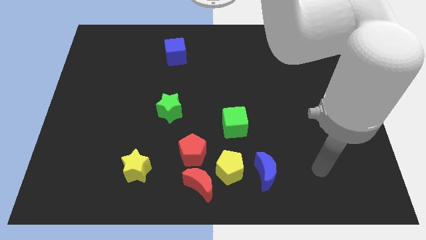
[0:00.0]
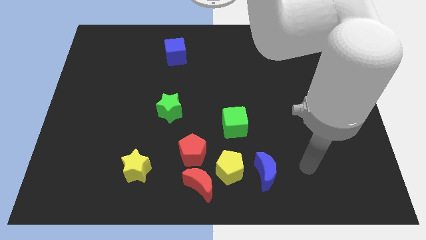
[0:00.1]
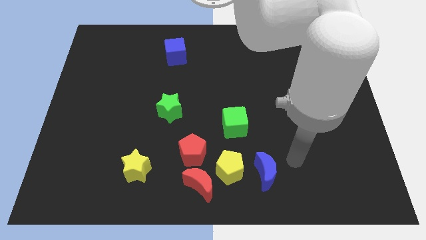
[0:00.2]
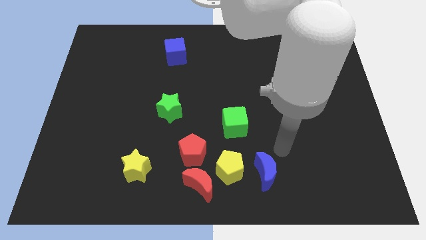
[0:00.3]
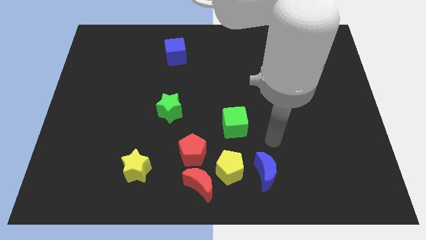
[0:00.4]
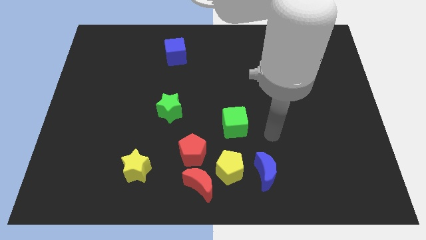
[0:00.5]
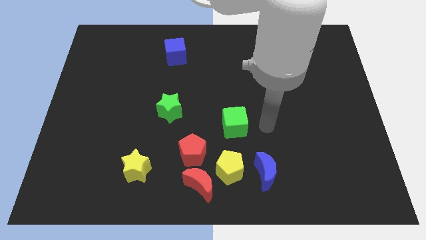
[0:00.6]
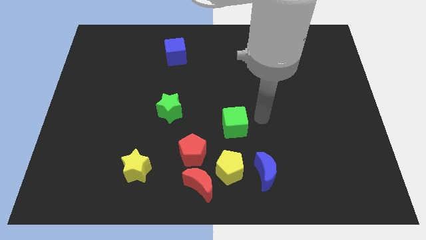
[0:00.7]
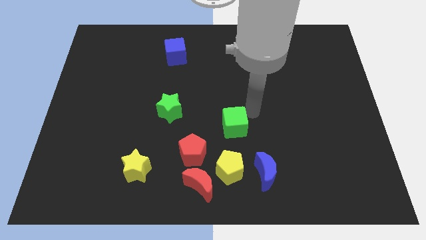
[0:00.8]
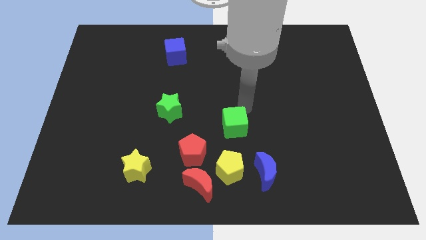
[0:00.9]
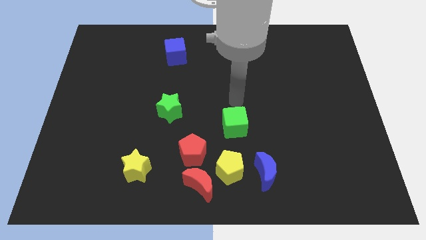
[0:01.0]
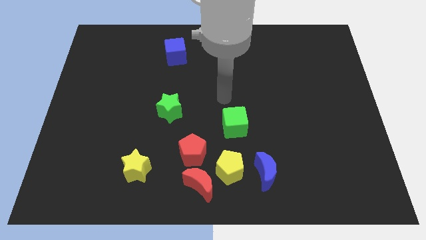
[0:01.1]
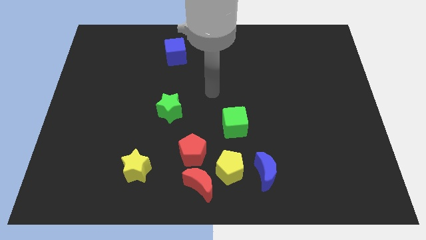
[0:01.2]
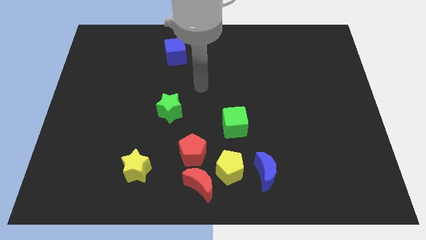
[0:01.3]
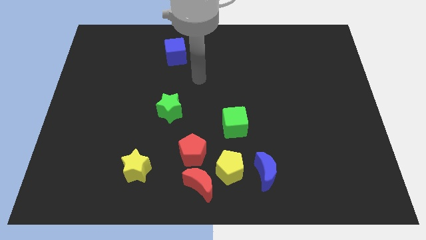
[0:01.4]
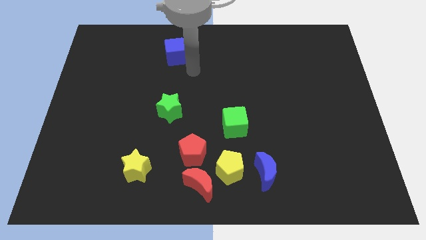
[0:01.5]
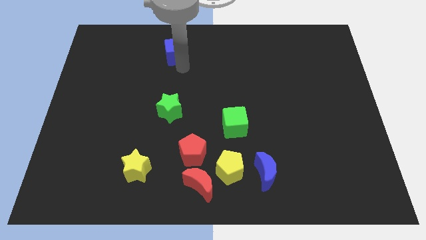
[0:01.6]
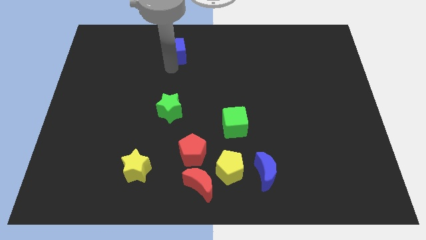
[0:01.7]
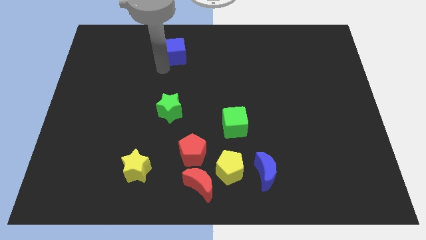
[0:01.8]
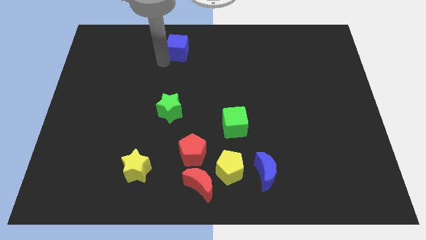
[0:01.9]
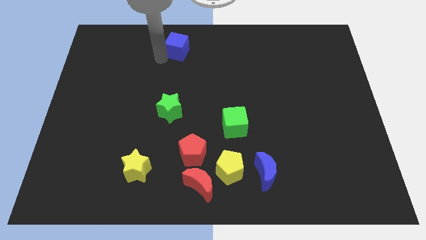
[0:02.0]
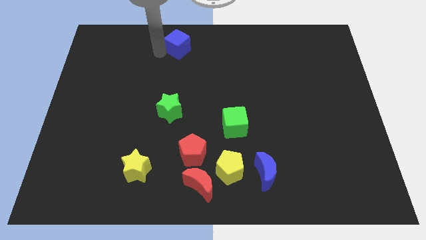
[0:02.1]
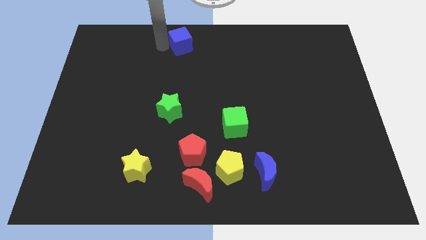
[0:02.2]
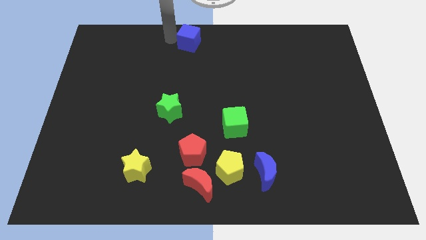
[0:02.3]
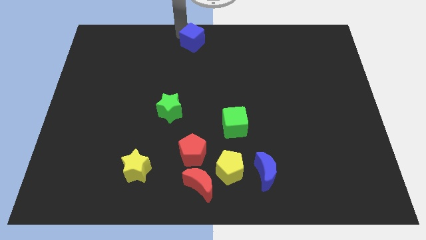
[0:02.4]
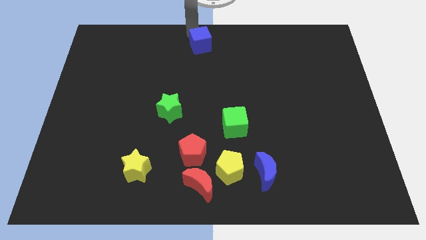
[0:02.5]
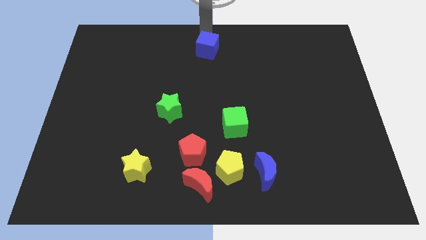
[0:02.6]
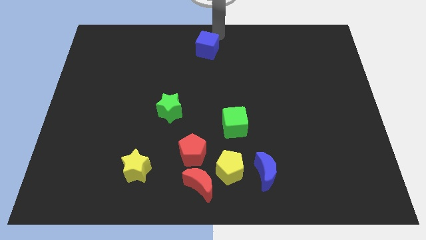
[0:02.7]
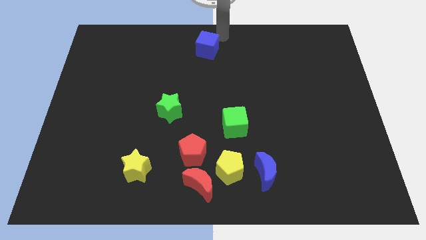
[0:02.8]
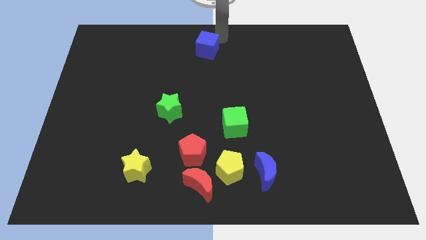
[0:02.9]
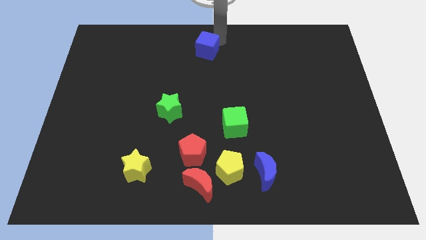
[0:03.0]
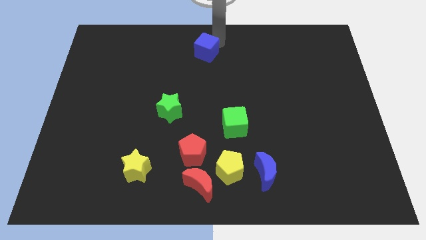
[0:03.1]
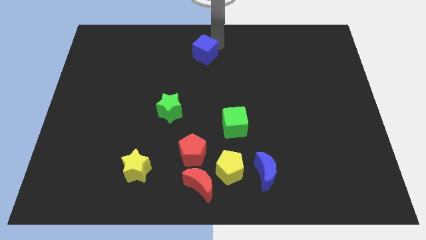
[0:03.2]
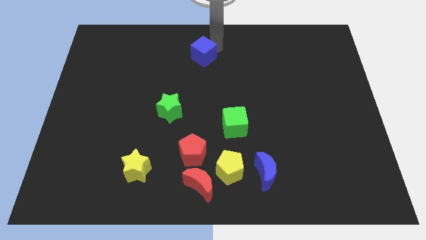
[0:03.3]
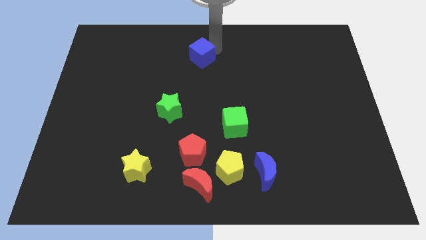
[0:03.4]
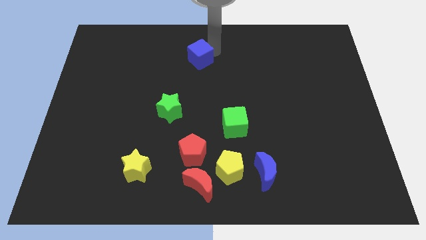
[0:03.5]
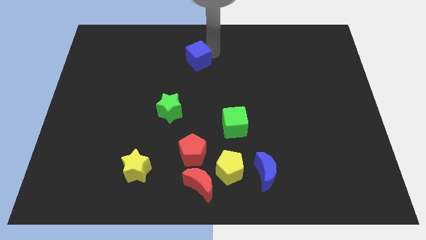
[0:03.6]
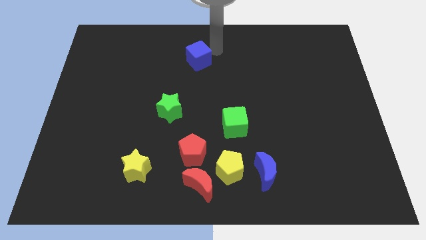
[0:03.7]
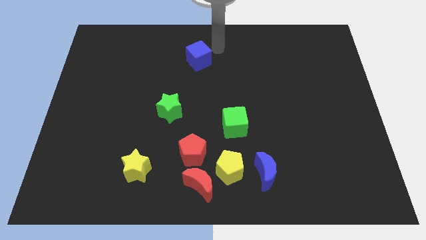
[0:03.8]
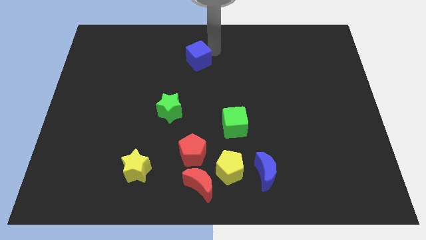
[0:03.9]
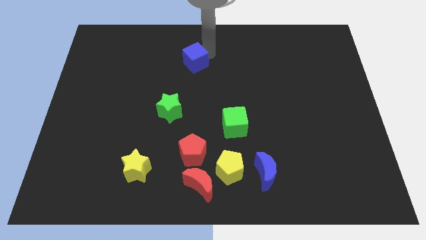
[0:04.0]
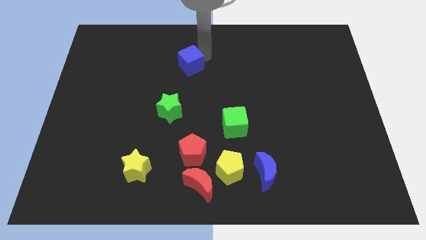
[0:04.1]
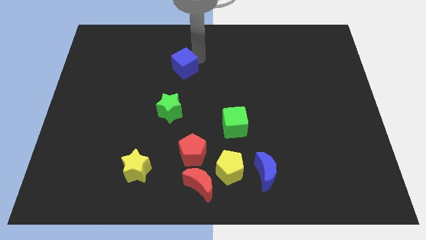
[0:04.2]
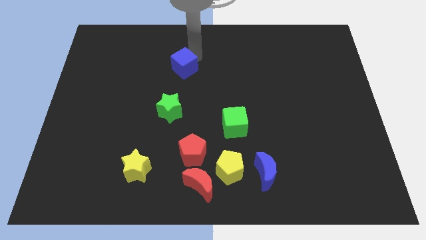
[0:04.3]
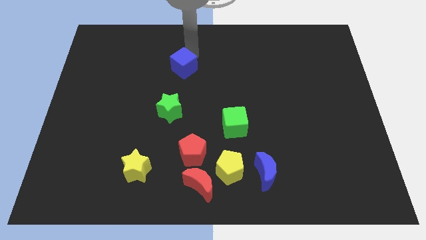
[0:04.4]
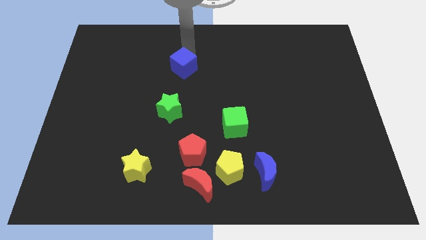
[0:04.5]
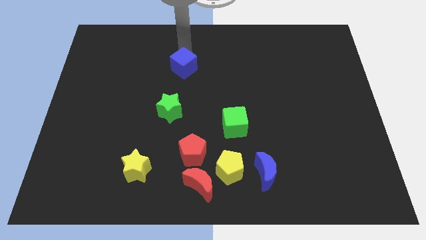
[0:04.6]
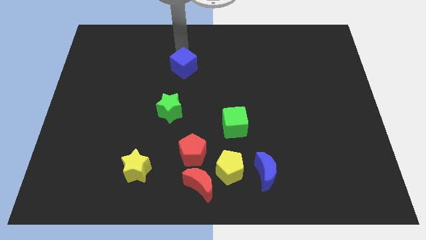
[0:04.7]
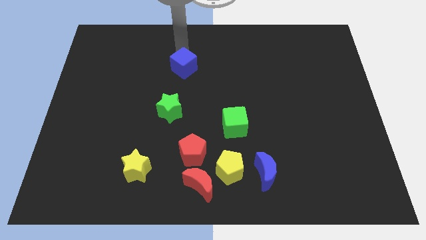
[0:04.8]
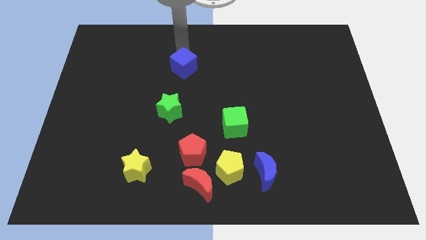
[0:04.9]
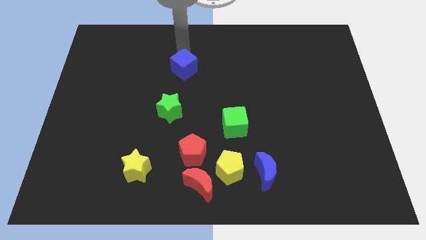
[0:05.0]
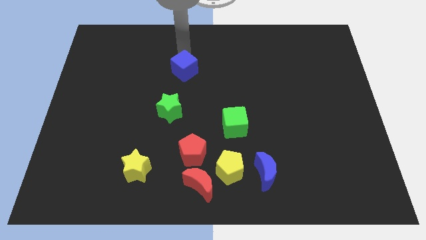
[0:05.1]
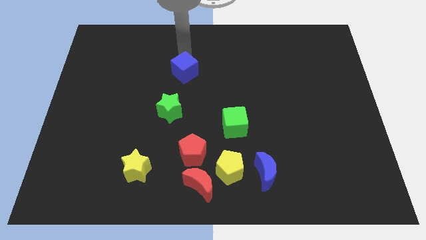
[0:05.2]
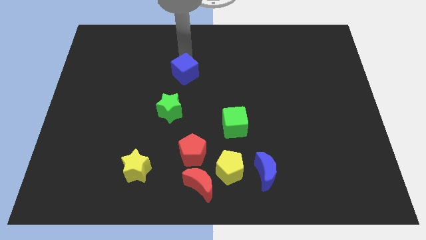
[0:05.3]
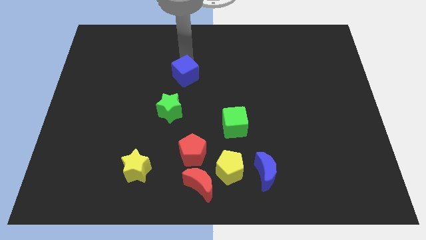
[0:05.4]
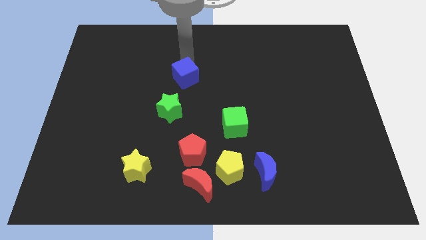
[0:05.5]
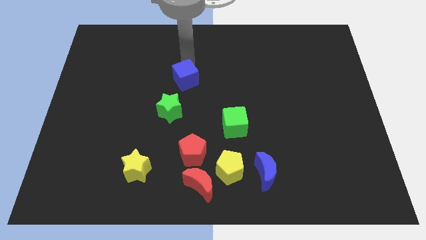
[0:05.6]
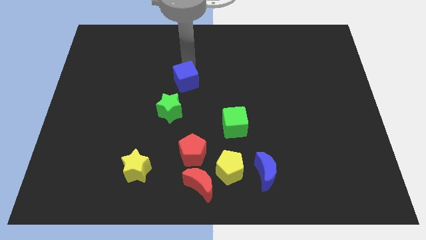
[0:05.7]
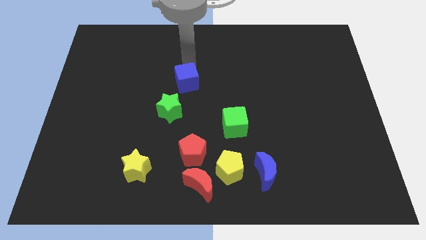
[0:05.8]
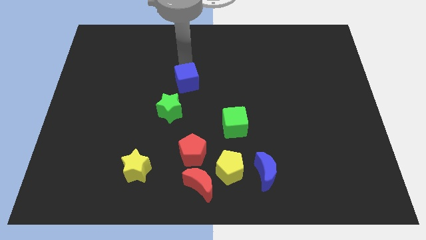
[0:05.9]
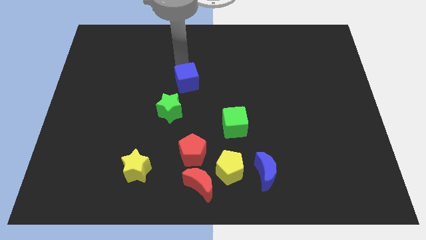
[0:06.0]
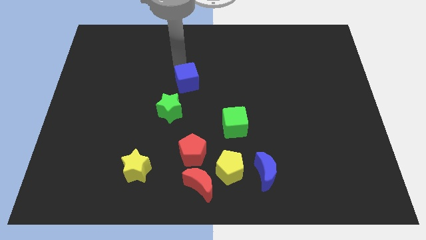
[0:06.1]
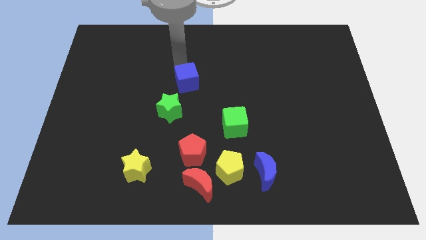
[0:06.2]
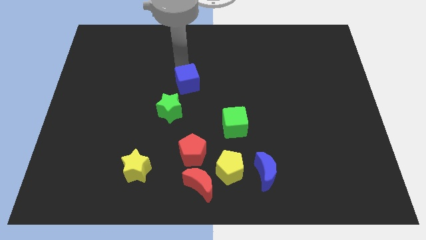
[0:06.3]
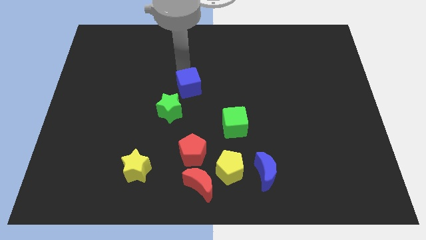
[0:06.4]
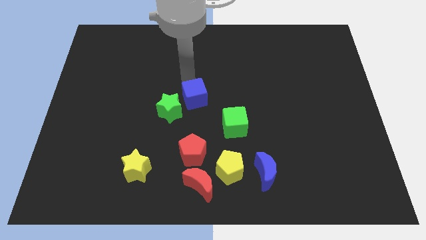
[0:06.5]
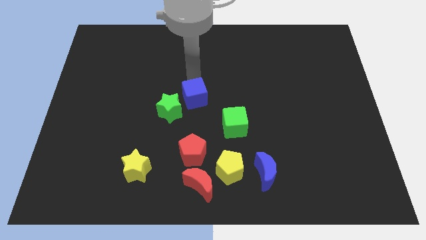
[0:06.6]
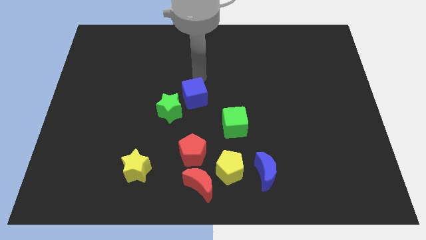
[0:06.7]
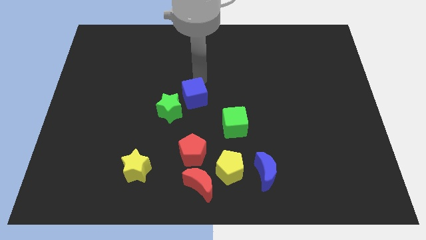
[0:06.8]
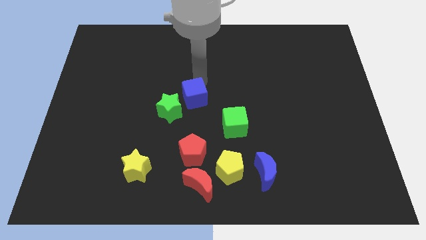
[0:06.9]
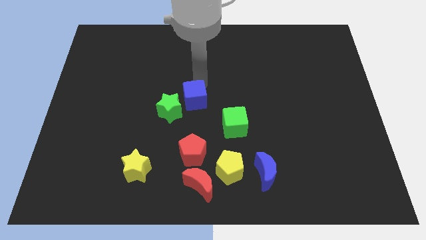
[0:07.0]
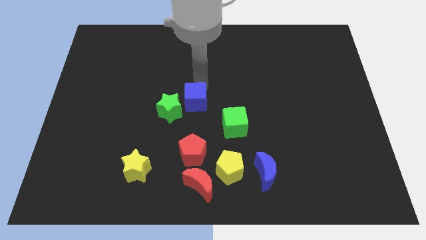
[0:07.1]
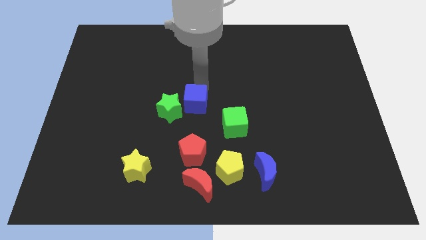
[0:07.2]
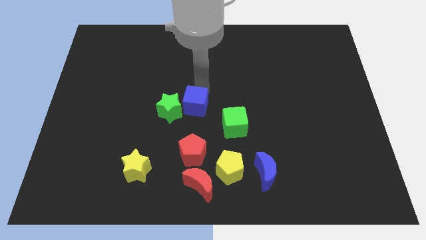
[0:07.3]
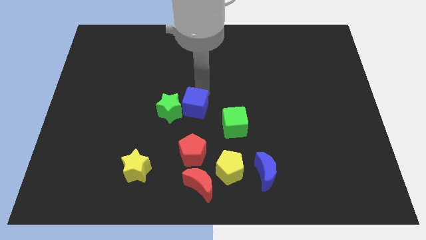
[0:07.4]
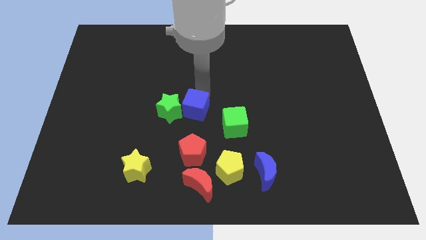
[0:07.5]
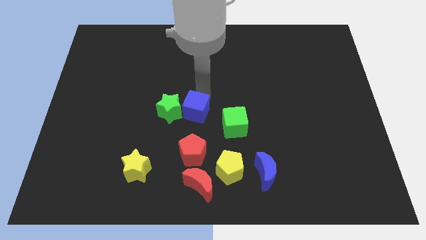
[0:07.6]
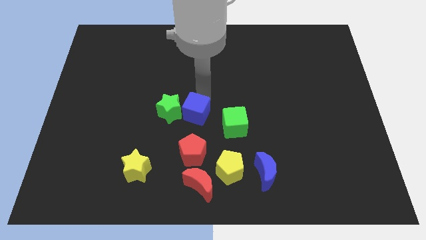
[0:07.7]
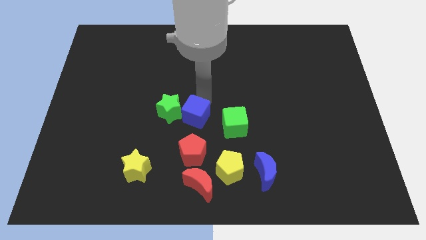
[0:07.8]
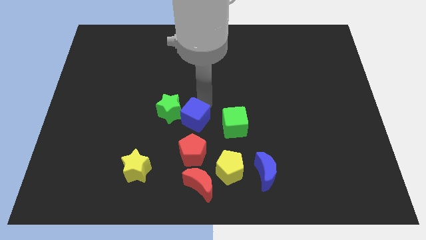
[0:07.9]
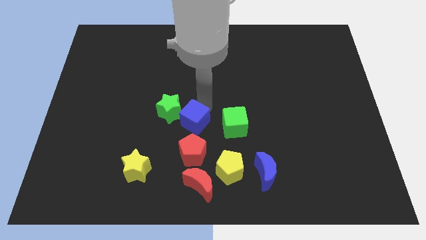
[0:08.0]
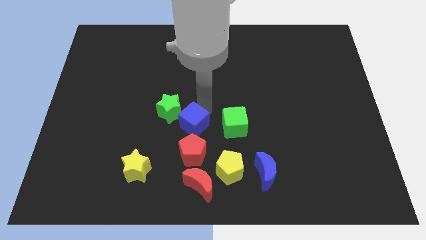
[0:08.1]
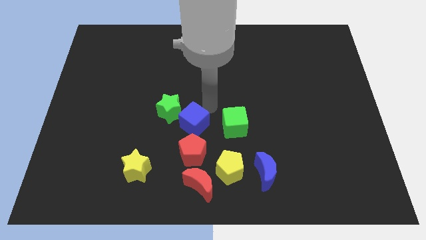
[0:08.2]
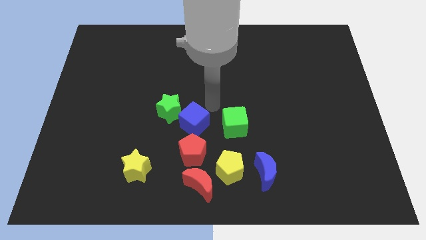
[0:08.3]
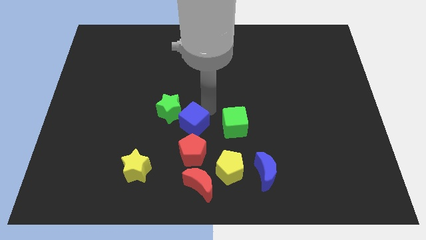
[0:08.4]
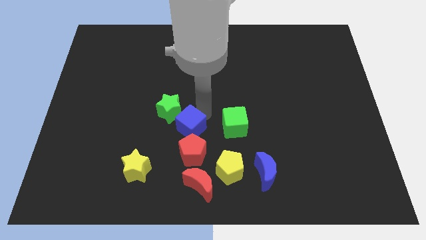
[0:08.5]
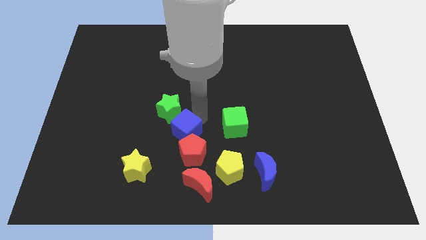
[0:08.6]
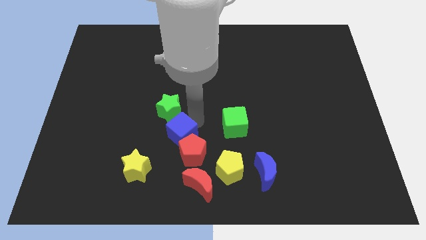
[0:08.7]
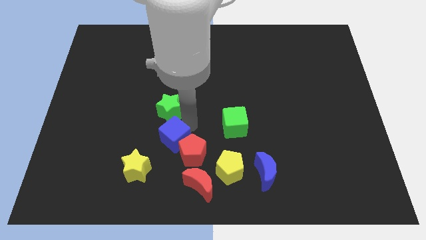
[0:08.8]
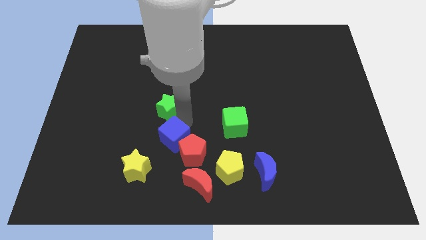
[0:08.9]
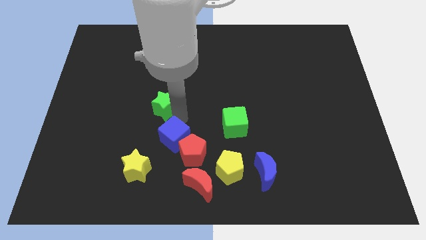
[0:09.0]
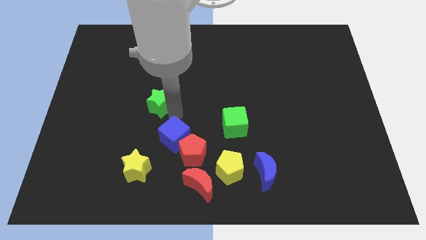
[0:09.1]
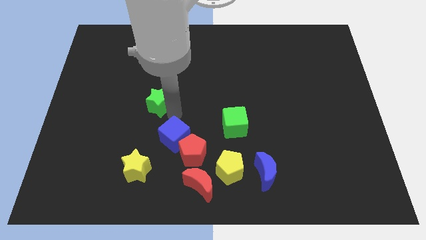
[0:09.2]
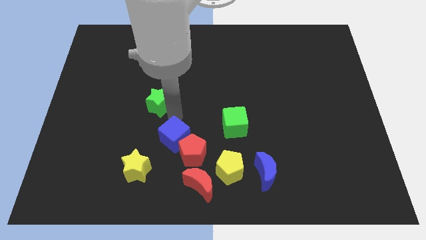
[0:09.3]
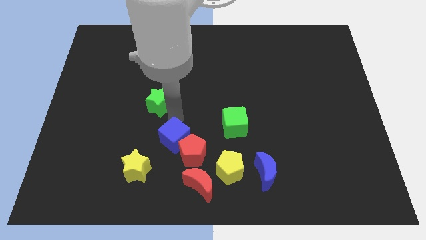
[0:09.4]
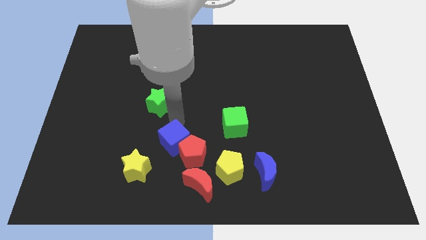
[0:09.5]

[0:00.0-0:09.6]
push the blue cube to the top left side of the red moon
